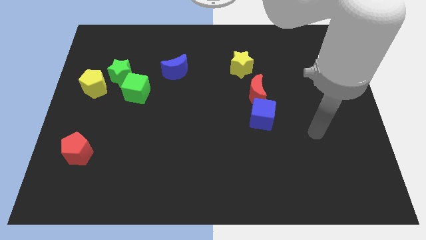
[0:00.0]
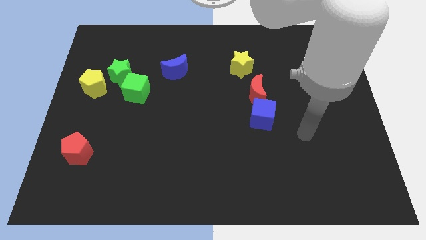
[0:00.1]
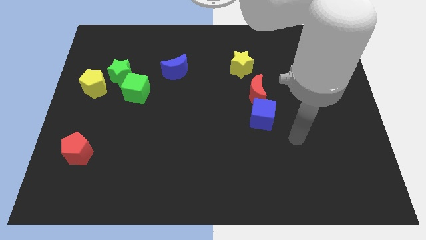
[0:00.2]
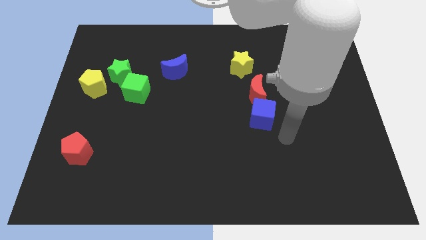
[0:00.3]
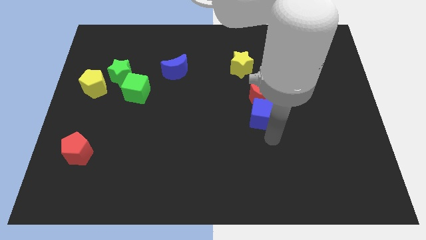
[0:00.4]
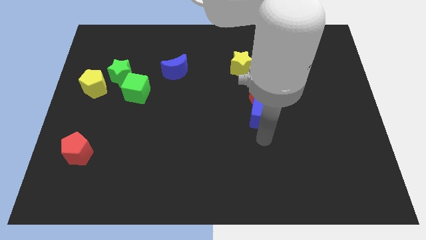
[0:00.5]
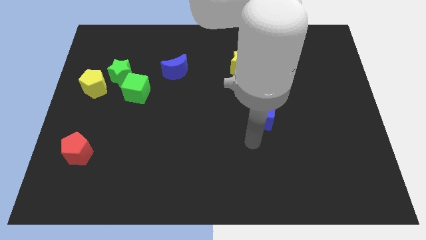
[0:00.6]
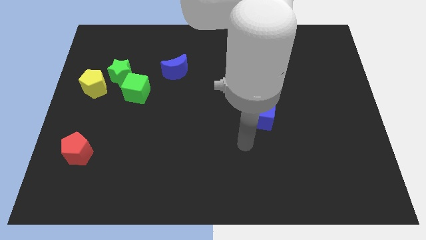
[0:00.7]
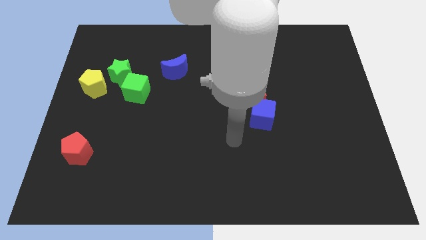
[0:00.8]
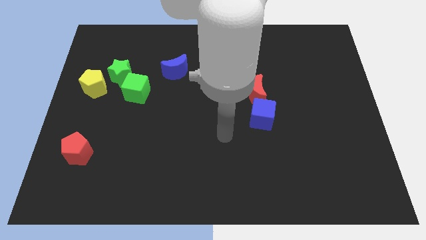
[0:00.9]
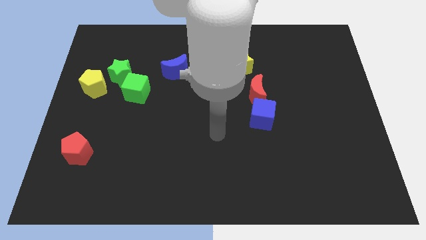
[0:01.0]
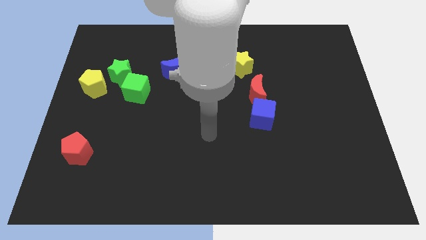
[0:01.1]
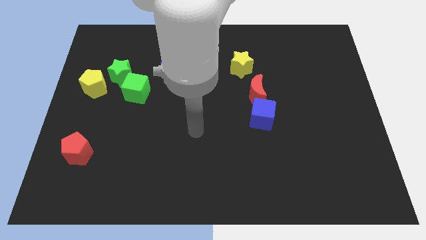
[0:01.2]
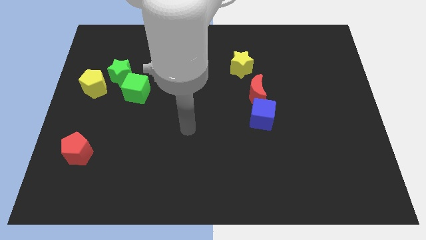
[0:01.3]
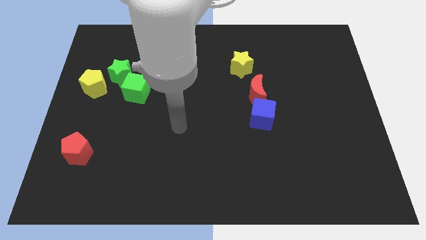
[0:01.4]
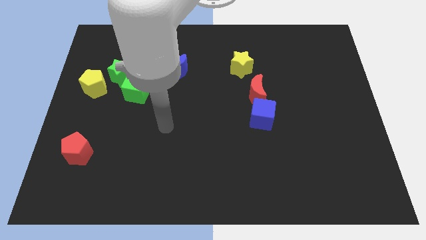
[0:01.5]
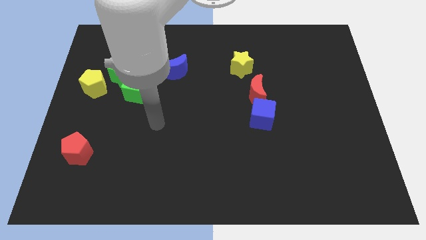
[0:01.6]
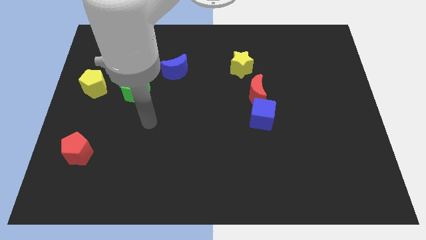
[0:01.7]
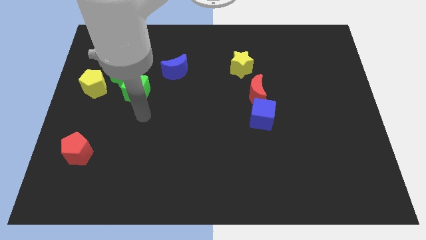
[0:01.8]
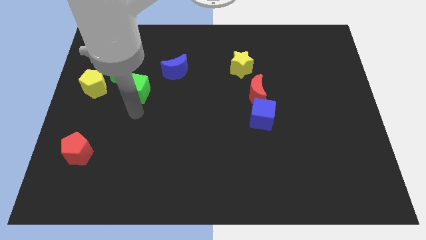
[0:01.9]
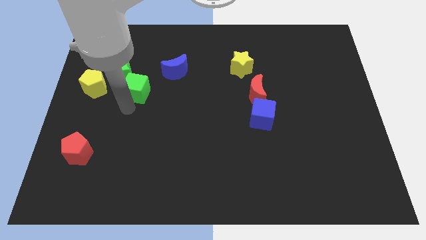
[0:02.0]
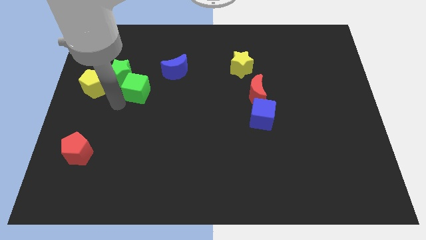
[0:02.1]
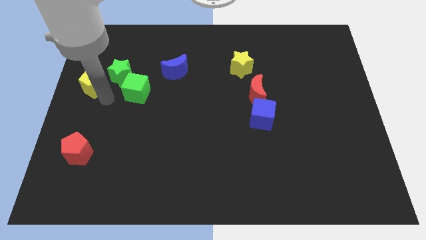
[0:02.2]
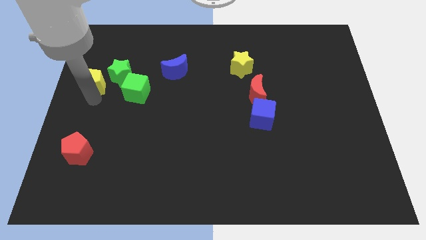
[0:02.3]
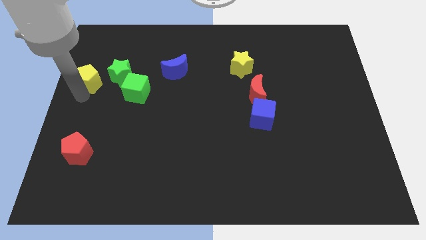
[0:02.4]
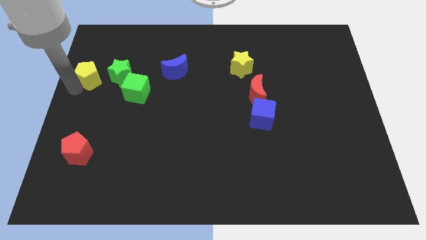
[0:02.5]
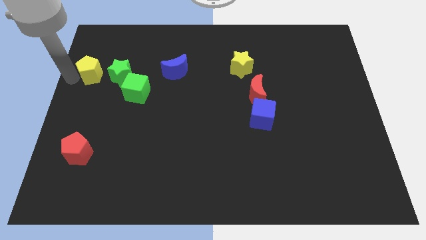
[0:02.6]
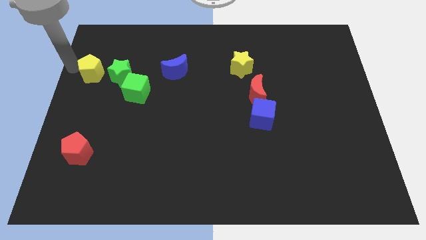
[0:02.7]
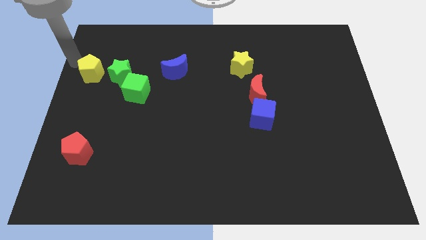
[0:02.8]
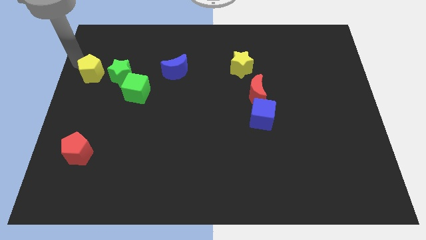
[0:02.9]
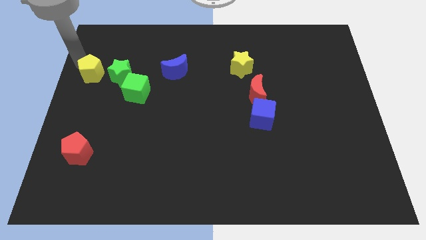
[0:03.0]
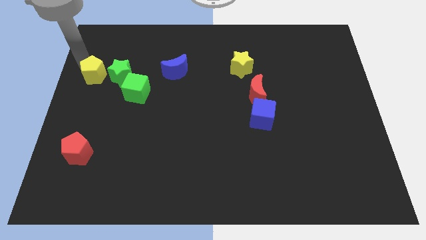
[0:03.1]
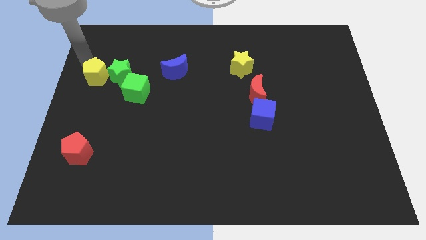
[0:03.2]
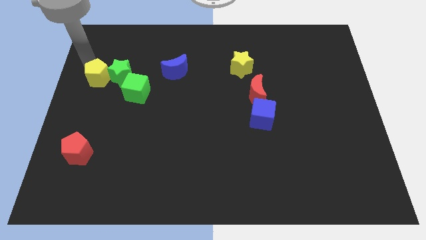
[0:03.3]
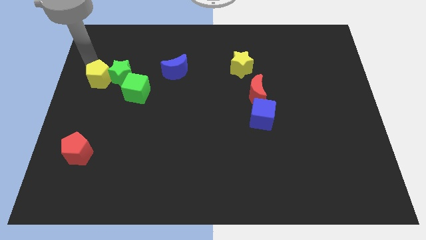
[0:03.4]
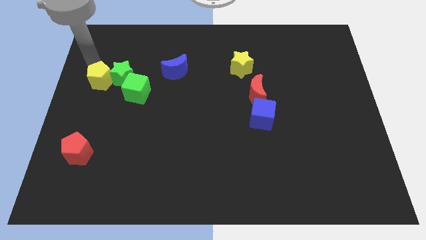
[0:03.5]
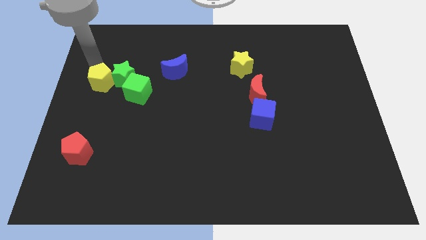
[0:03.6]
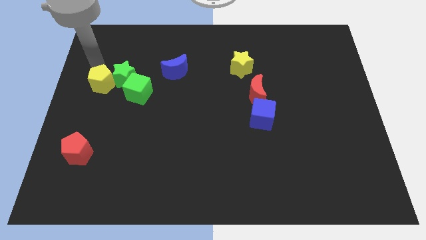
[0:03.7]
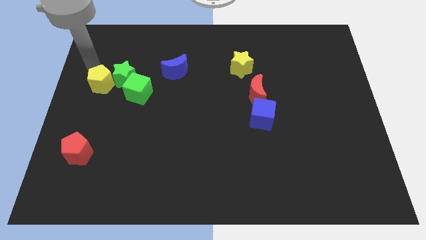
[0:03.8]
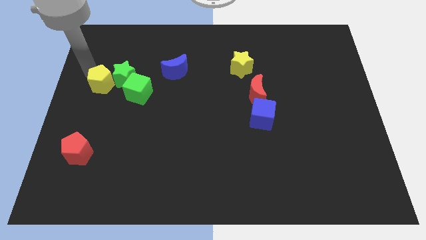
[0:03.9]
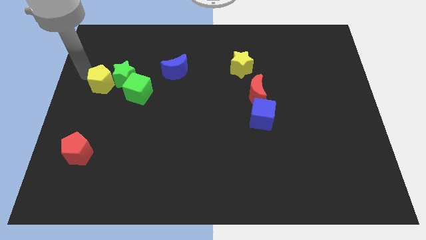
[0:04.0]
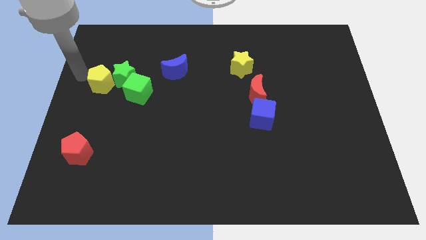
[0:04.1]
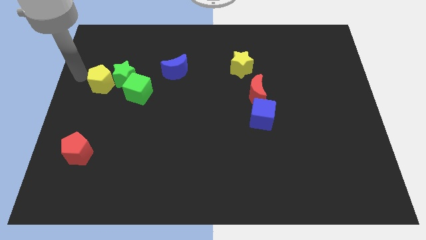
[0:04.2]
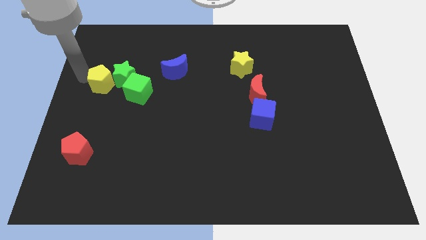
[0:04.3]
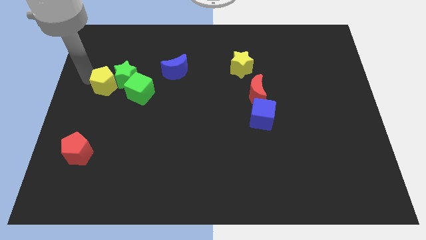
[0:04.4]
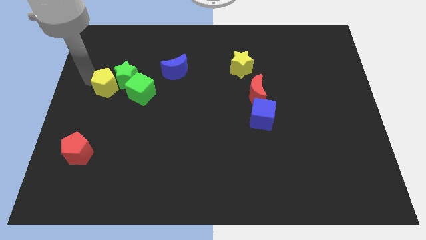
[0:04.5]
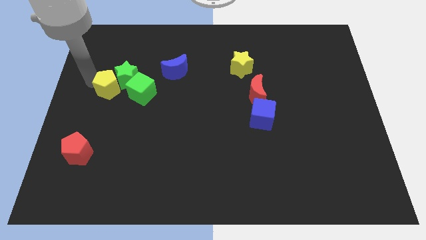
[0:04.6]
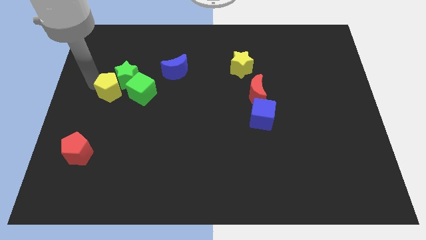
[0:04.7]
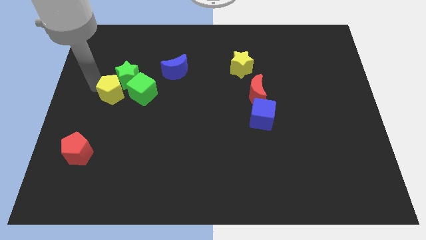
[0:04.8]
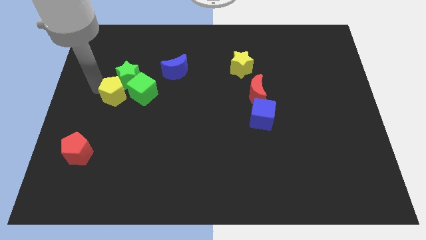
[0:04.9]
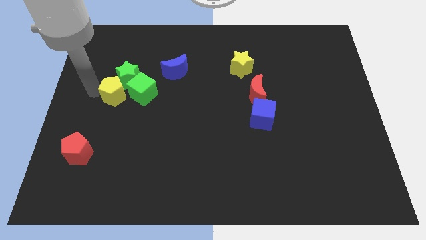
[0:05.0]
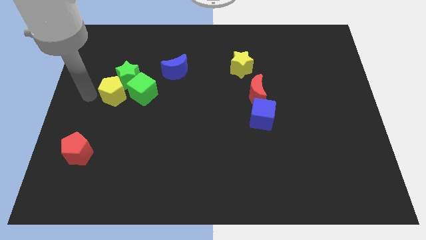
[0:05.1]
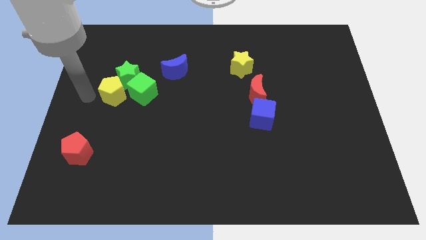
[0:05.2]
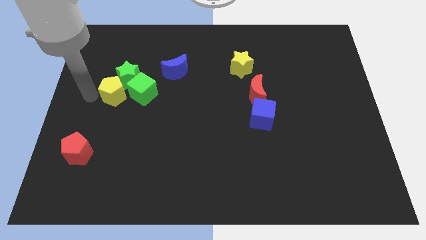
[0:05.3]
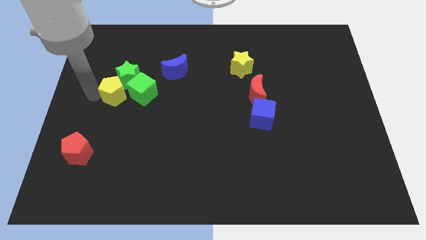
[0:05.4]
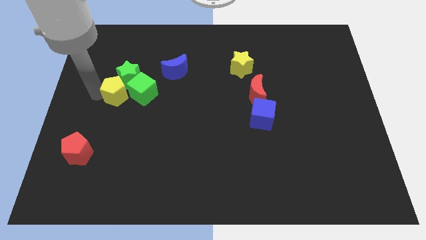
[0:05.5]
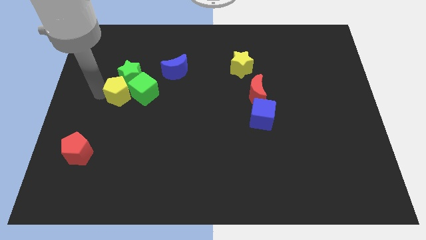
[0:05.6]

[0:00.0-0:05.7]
slide the yellow pentagon towards the green cube

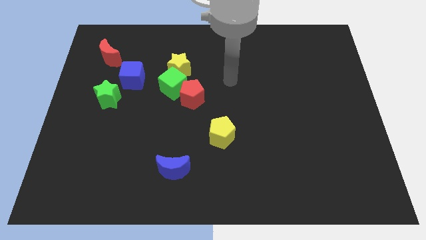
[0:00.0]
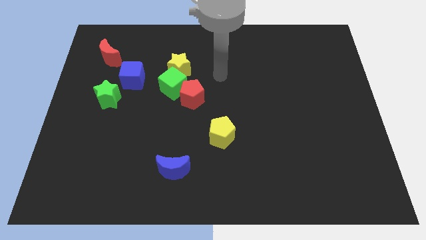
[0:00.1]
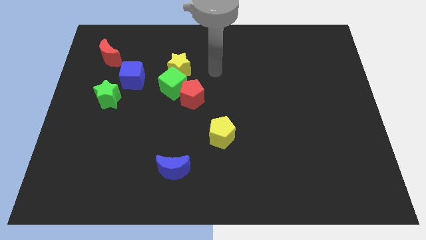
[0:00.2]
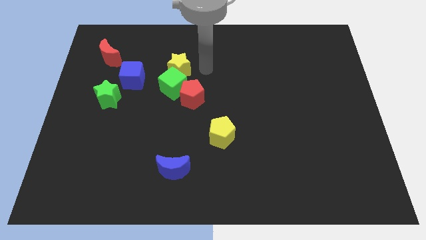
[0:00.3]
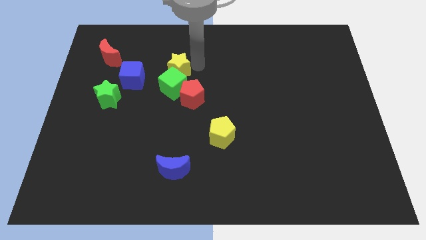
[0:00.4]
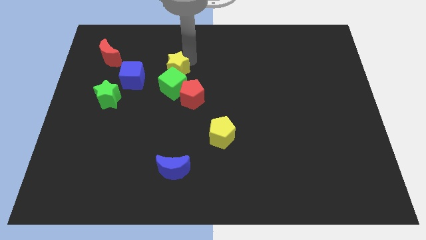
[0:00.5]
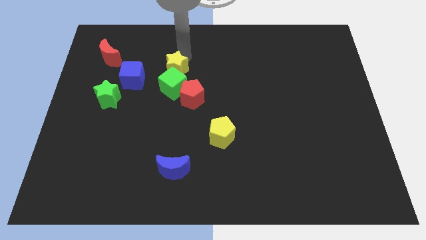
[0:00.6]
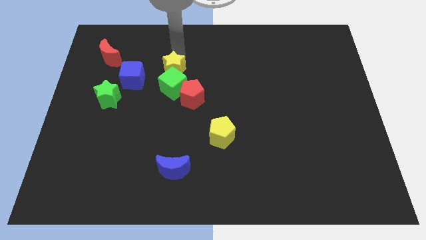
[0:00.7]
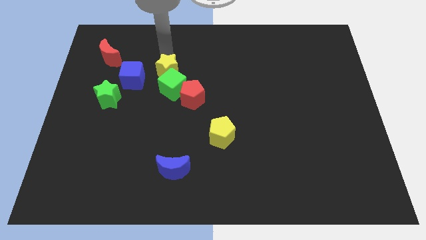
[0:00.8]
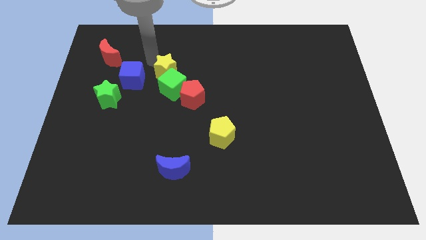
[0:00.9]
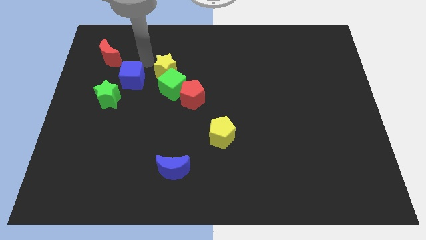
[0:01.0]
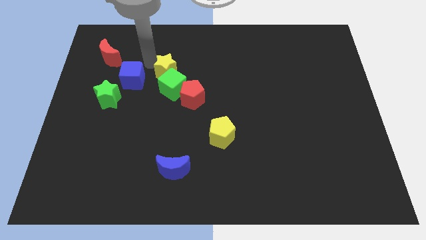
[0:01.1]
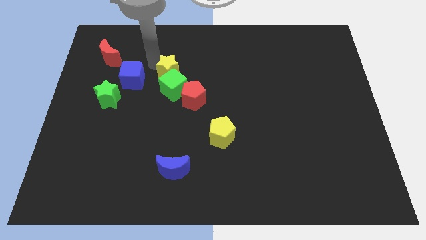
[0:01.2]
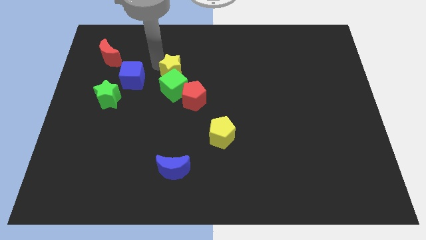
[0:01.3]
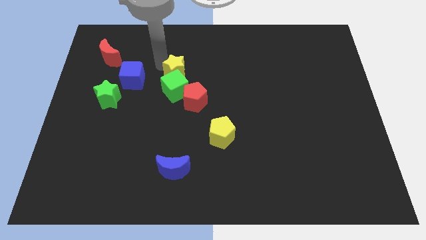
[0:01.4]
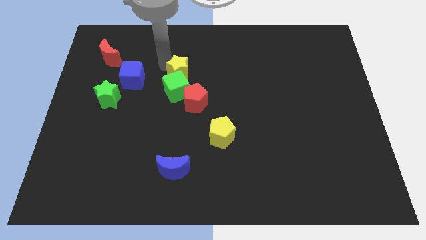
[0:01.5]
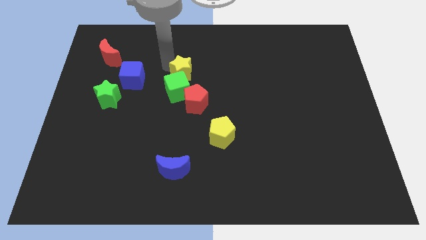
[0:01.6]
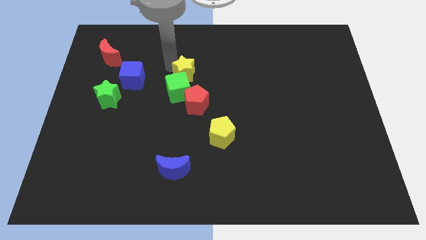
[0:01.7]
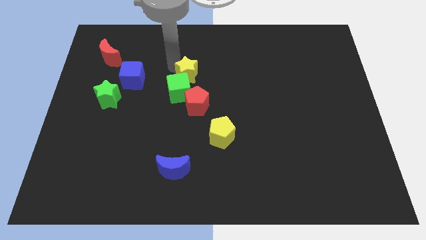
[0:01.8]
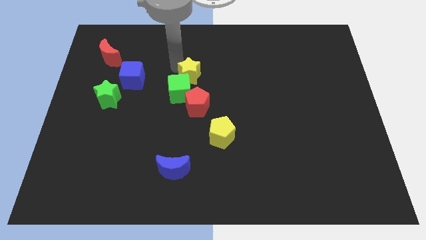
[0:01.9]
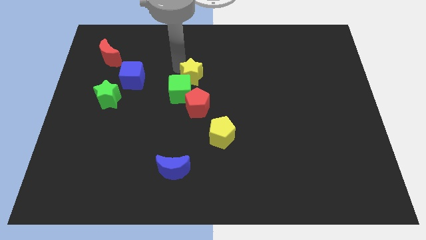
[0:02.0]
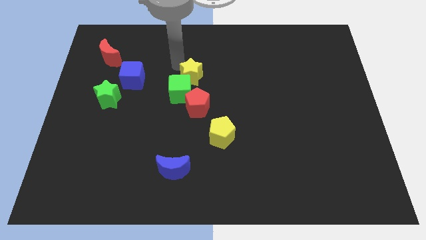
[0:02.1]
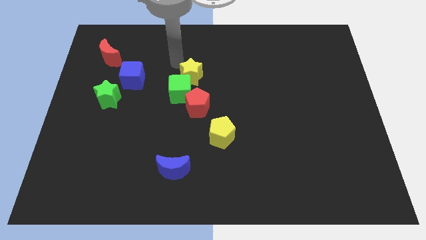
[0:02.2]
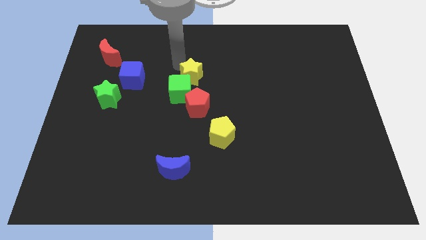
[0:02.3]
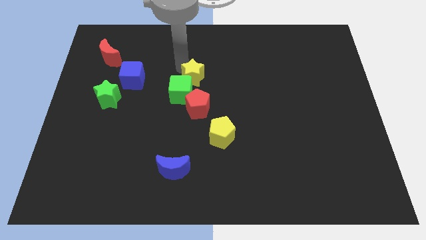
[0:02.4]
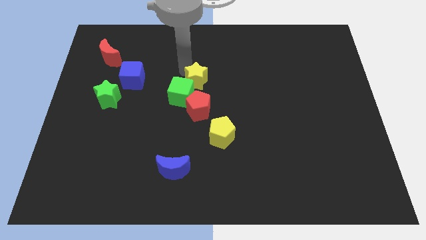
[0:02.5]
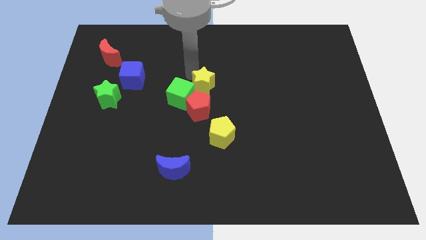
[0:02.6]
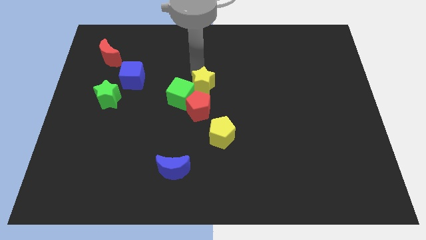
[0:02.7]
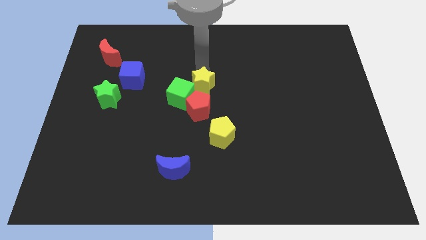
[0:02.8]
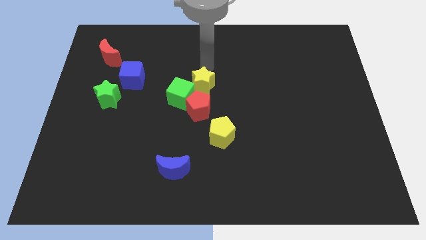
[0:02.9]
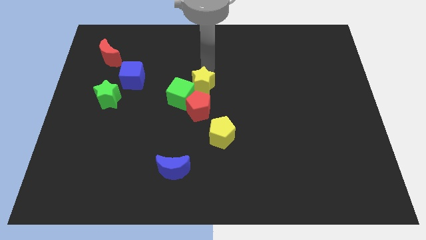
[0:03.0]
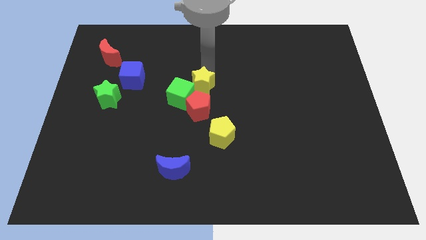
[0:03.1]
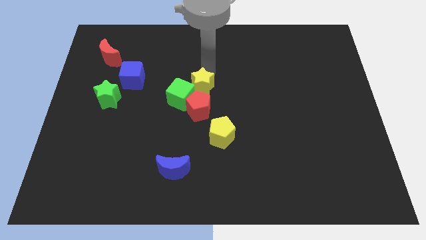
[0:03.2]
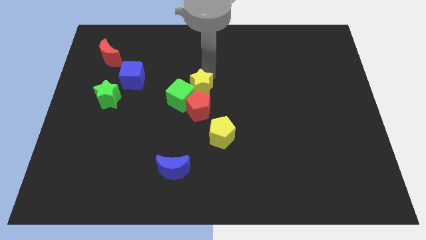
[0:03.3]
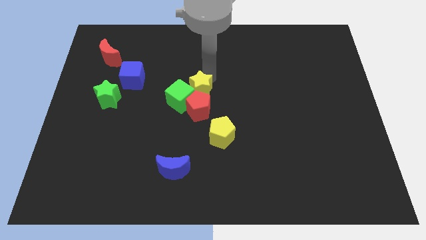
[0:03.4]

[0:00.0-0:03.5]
move the yellow star close to the red pentagon
